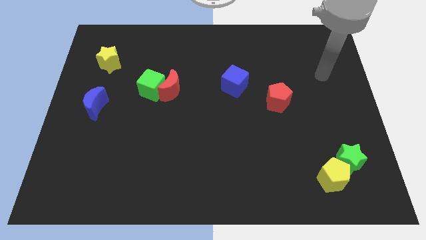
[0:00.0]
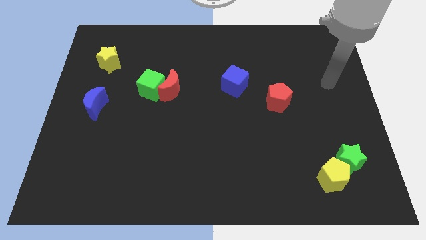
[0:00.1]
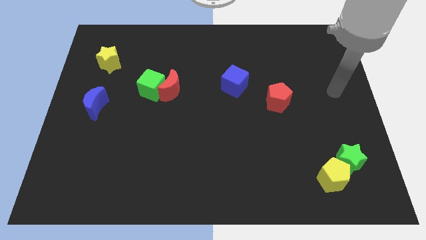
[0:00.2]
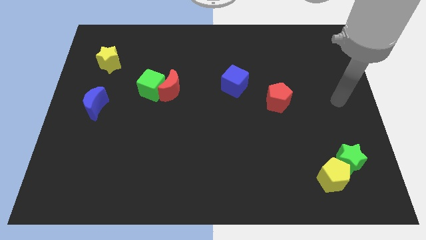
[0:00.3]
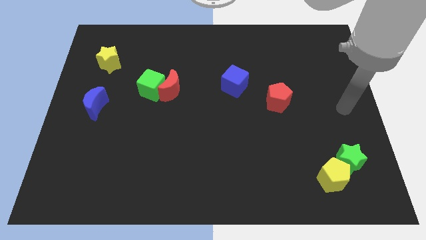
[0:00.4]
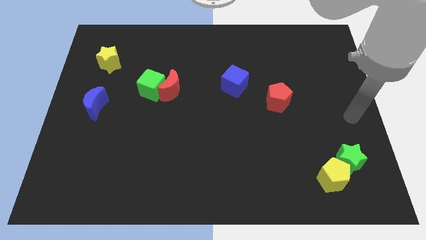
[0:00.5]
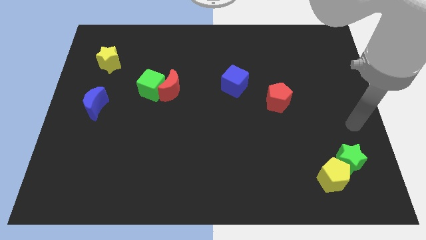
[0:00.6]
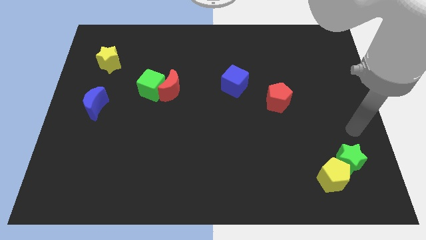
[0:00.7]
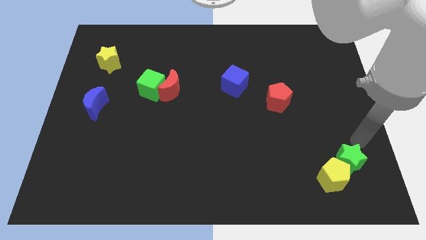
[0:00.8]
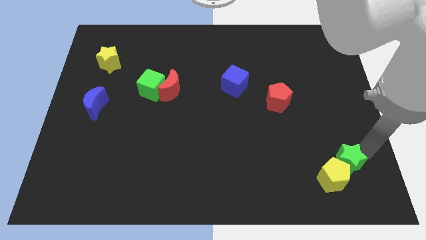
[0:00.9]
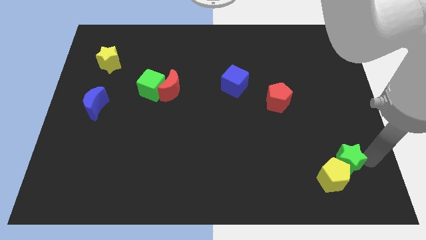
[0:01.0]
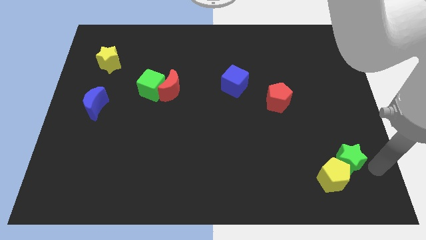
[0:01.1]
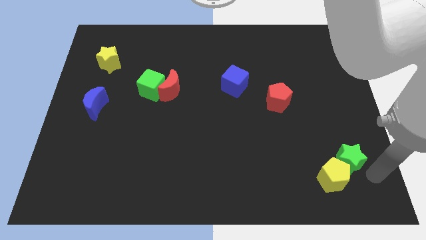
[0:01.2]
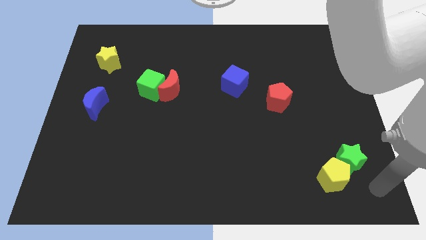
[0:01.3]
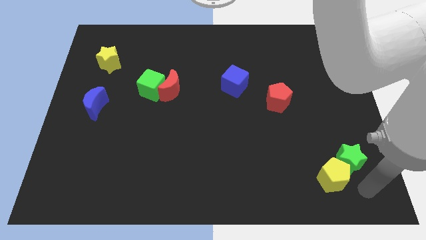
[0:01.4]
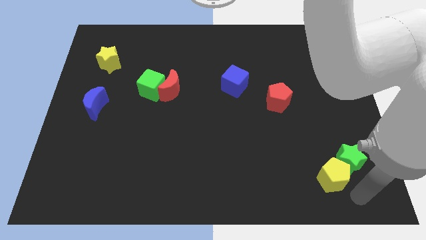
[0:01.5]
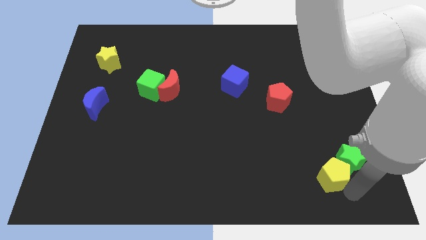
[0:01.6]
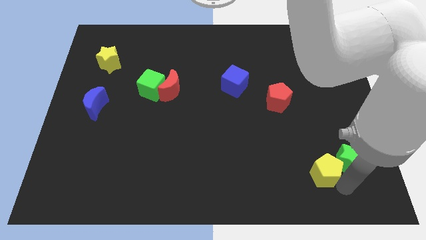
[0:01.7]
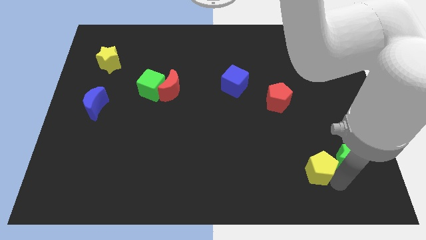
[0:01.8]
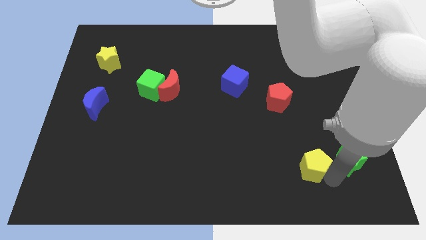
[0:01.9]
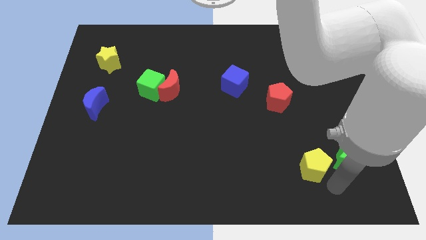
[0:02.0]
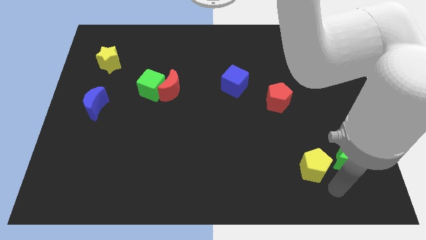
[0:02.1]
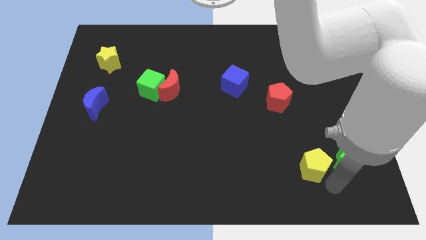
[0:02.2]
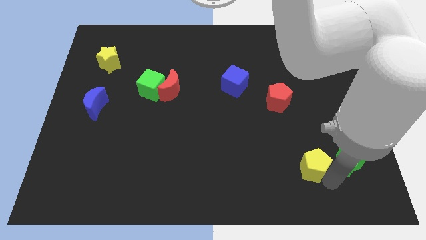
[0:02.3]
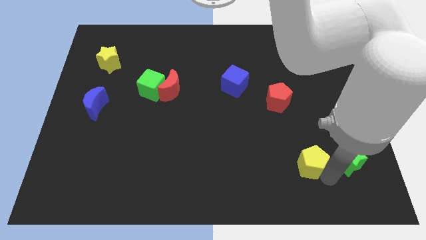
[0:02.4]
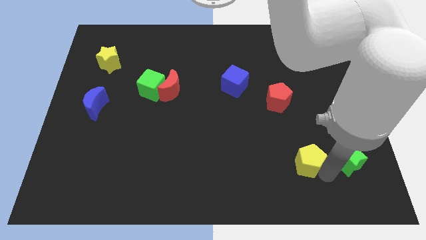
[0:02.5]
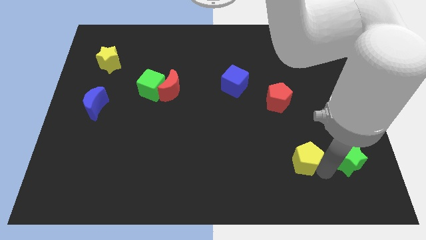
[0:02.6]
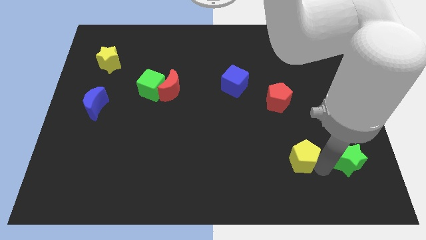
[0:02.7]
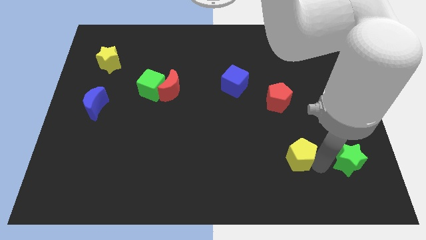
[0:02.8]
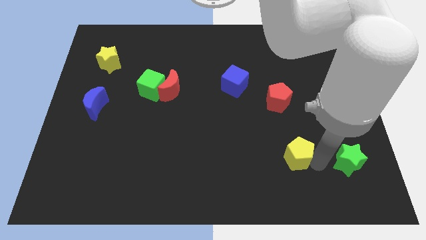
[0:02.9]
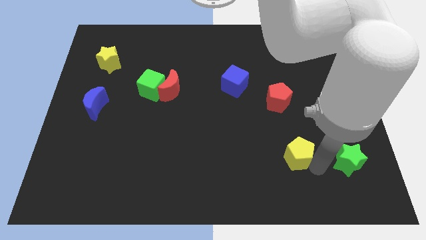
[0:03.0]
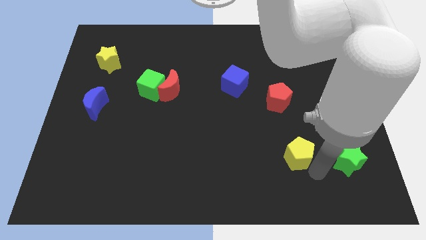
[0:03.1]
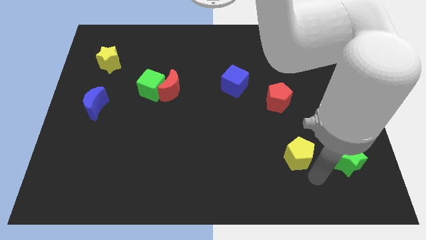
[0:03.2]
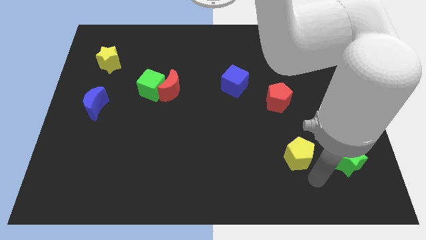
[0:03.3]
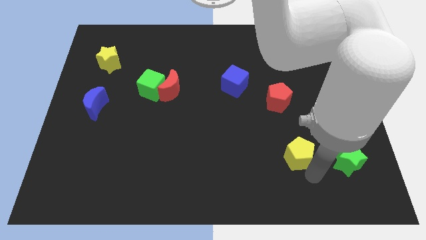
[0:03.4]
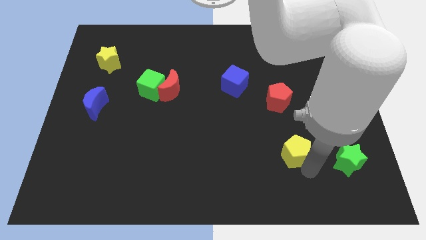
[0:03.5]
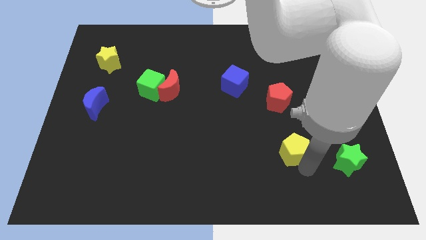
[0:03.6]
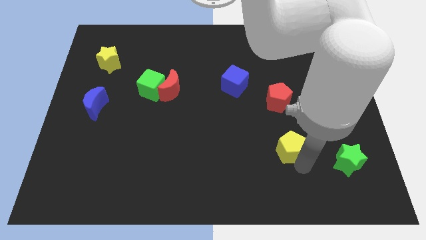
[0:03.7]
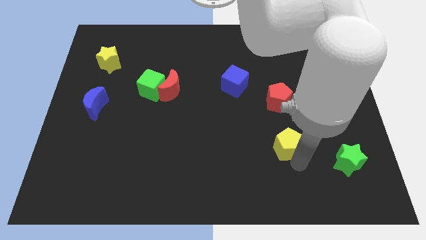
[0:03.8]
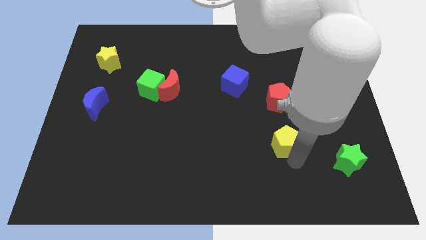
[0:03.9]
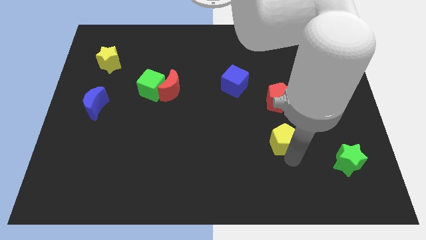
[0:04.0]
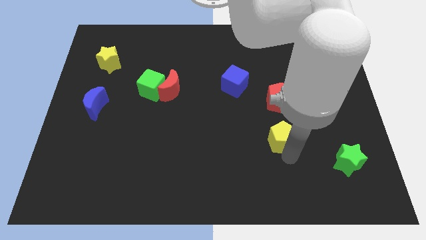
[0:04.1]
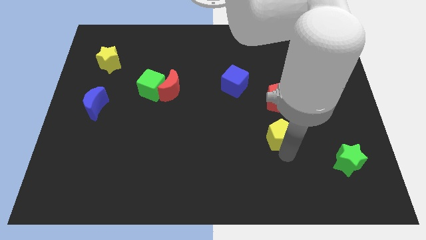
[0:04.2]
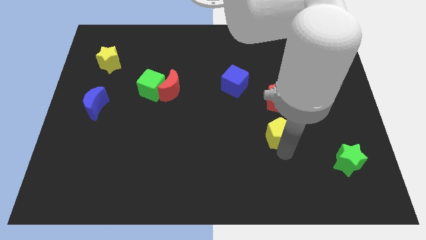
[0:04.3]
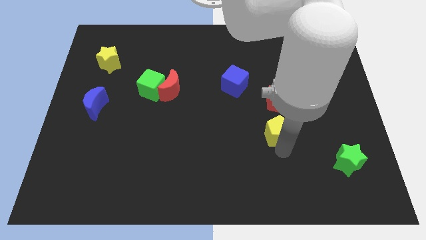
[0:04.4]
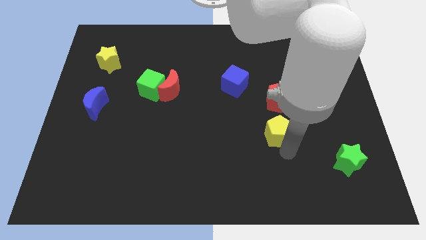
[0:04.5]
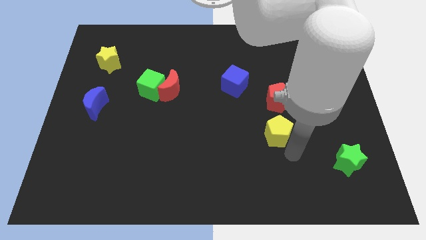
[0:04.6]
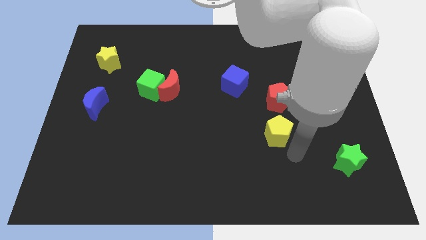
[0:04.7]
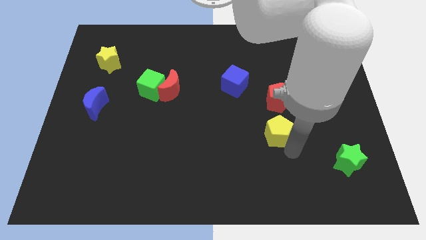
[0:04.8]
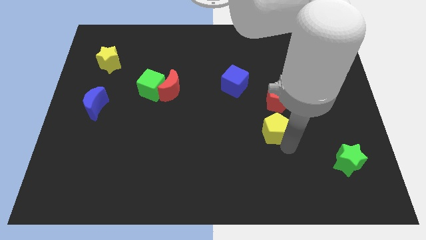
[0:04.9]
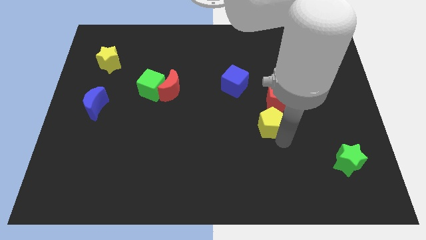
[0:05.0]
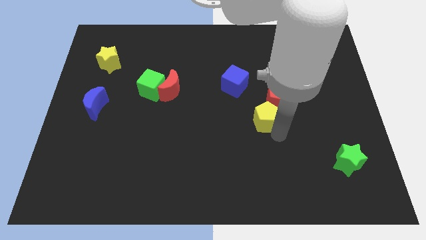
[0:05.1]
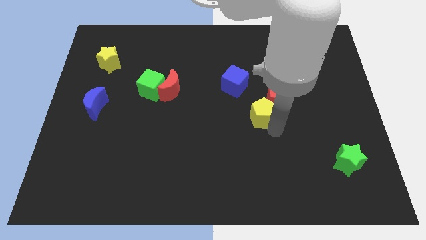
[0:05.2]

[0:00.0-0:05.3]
push the yellow pentagon up and to the left diagonally

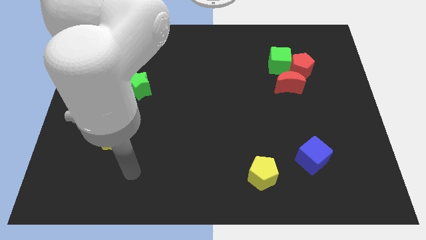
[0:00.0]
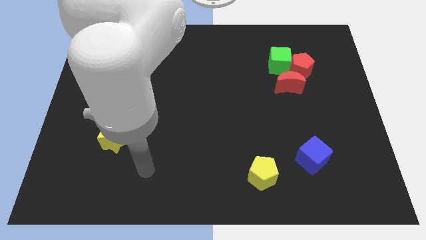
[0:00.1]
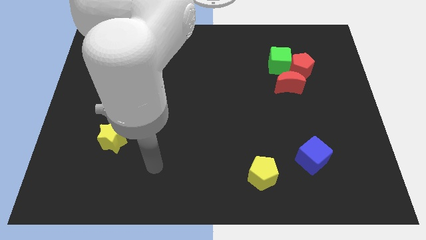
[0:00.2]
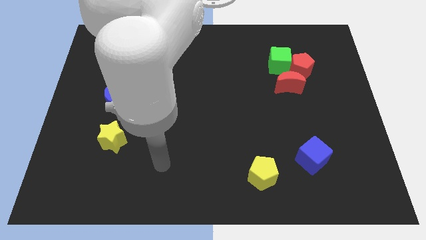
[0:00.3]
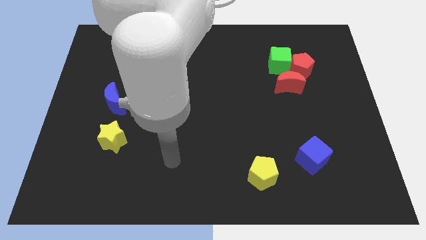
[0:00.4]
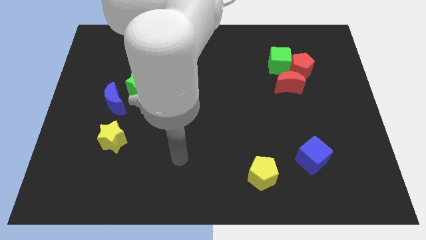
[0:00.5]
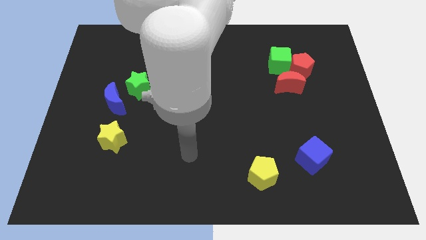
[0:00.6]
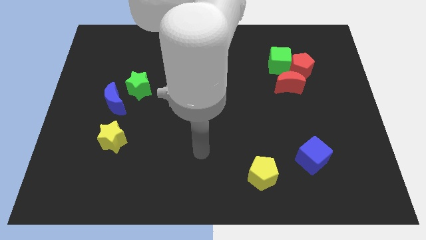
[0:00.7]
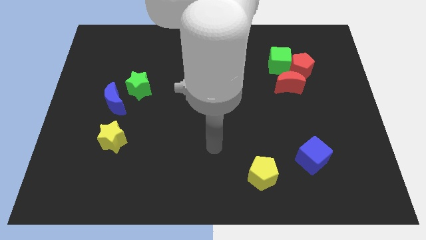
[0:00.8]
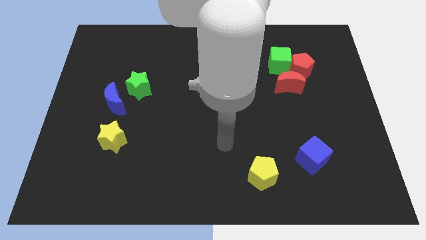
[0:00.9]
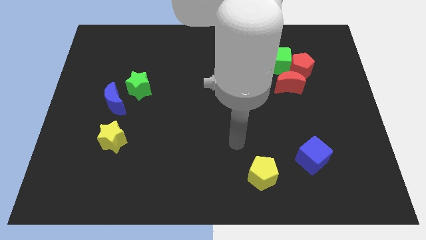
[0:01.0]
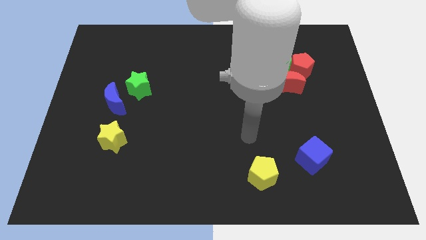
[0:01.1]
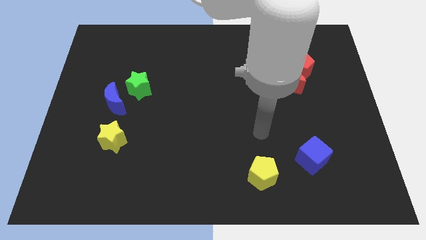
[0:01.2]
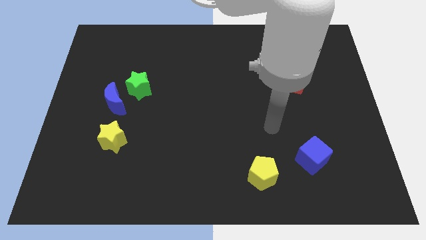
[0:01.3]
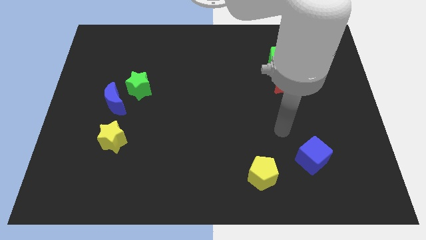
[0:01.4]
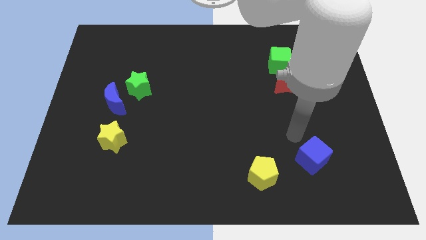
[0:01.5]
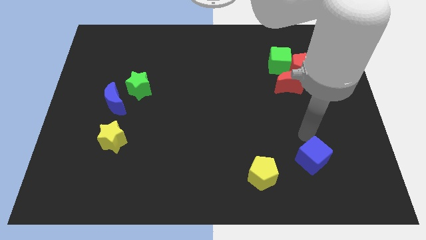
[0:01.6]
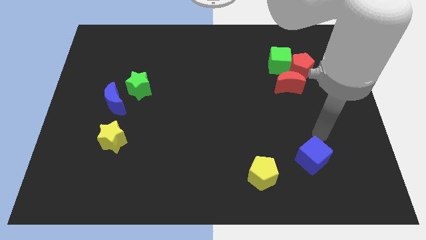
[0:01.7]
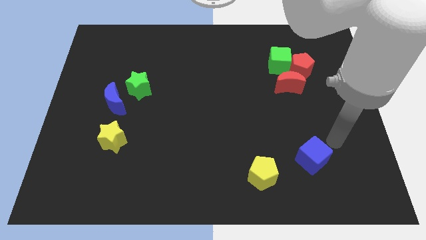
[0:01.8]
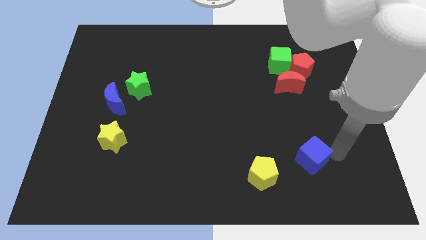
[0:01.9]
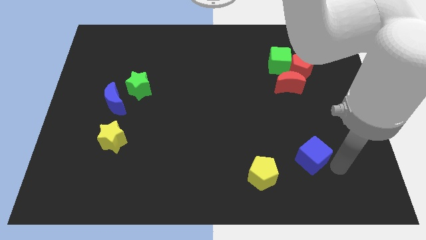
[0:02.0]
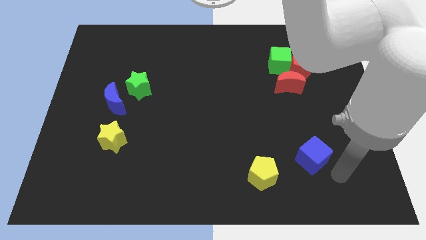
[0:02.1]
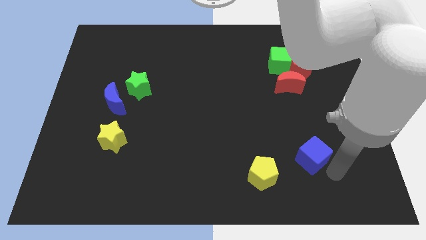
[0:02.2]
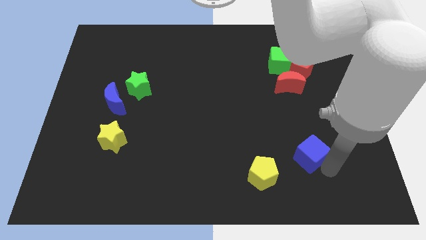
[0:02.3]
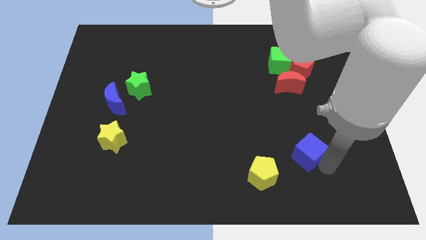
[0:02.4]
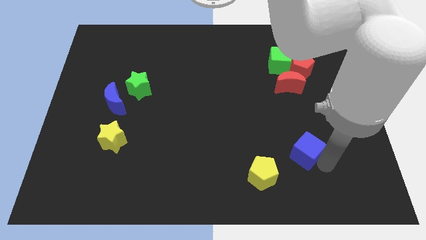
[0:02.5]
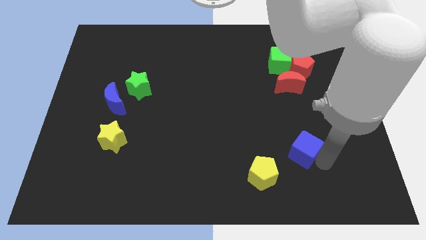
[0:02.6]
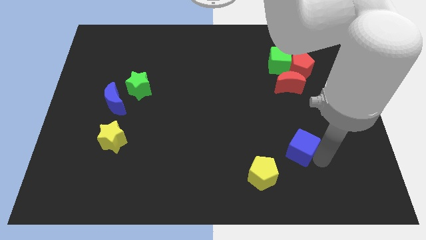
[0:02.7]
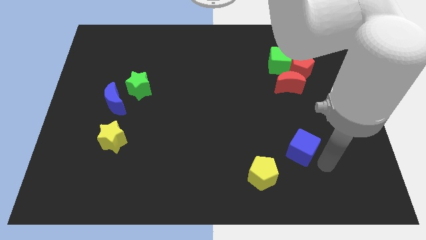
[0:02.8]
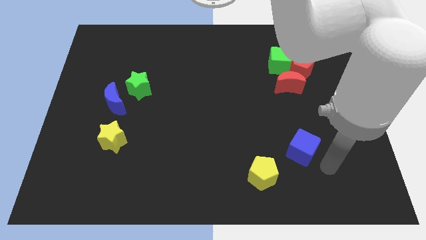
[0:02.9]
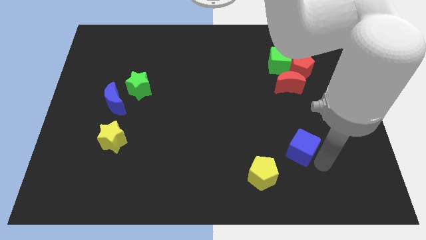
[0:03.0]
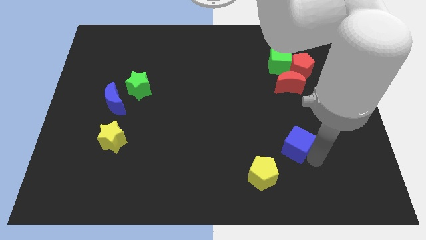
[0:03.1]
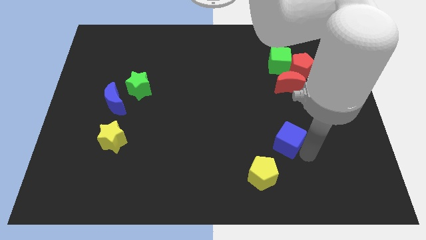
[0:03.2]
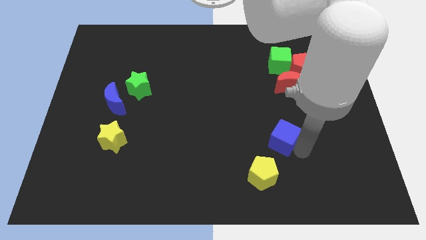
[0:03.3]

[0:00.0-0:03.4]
push the blue cube diagonally upwards and to the left slightly
